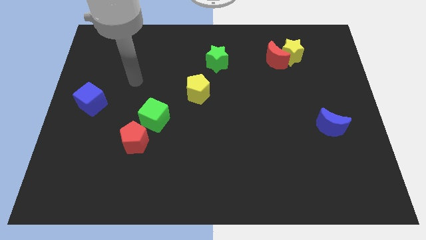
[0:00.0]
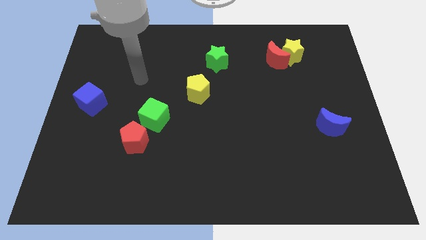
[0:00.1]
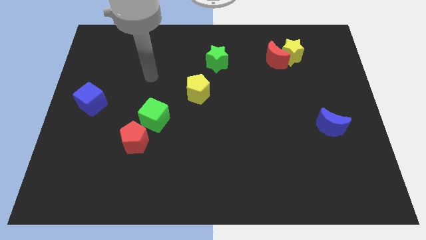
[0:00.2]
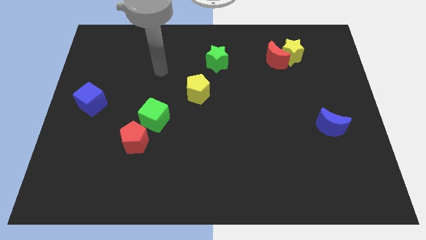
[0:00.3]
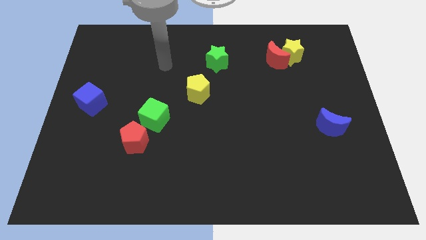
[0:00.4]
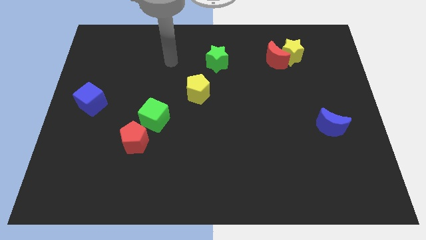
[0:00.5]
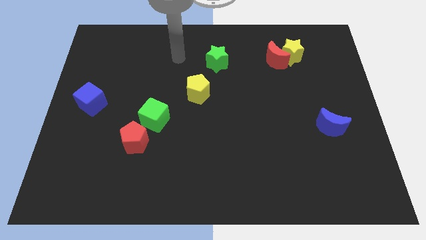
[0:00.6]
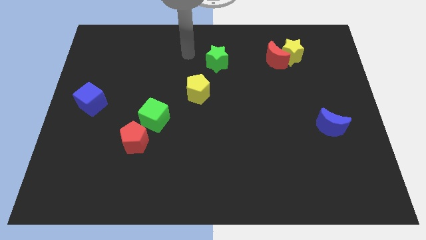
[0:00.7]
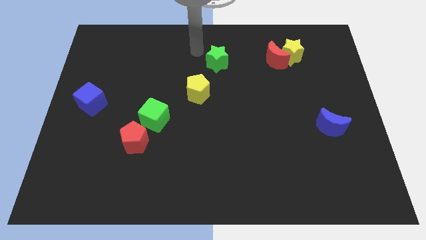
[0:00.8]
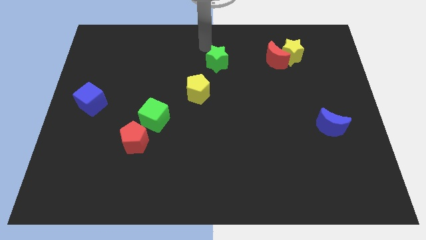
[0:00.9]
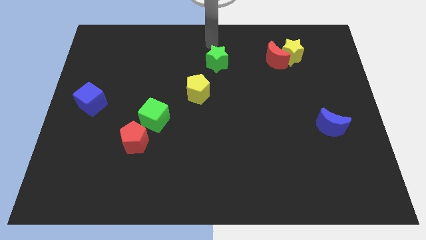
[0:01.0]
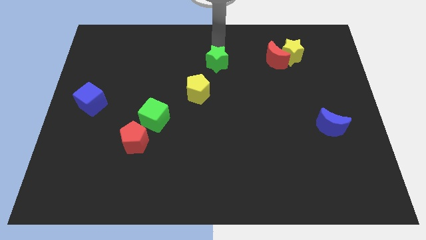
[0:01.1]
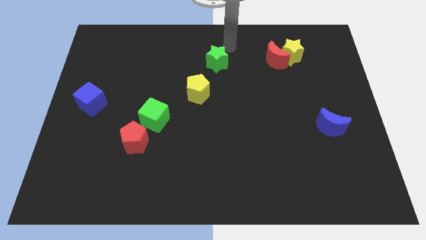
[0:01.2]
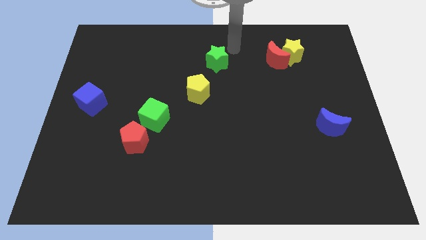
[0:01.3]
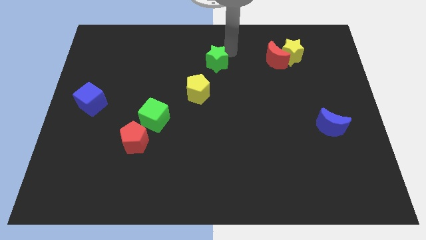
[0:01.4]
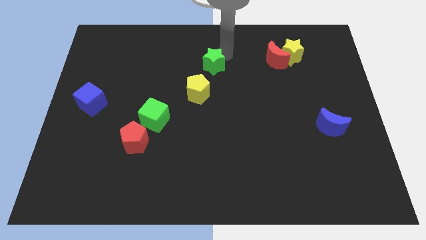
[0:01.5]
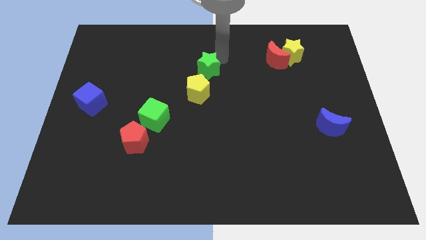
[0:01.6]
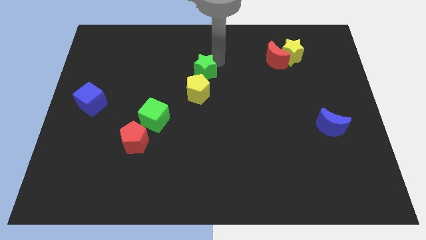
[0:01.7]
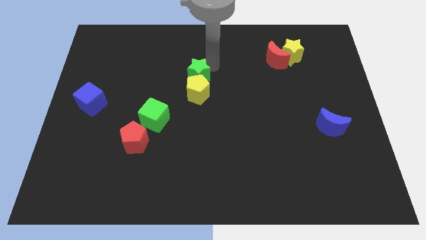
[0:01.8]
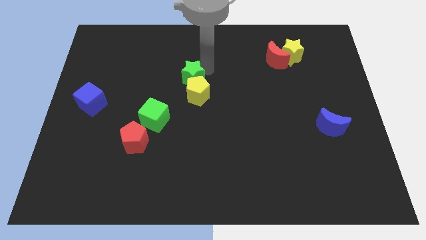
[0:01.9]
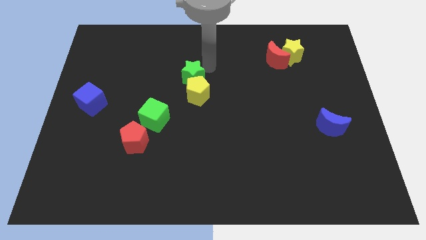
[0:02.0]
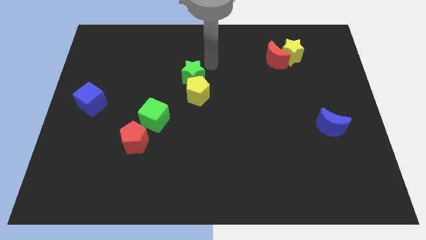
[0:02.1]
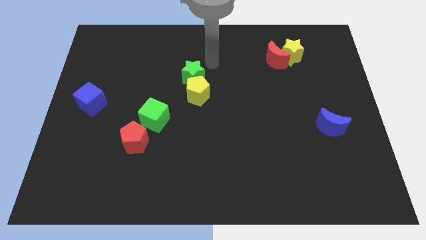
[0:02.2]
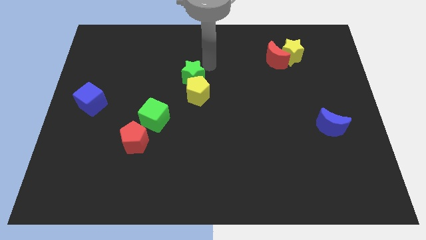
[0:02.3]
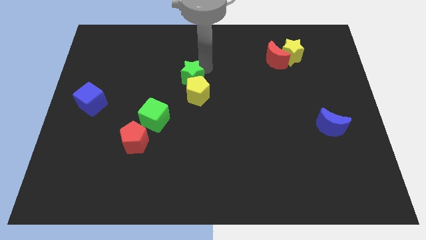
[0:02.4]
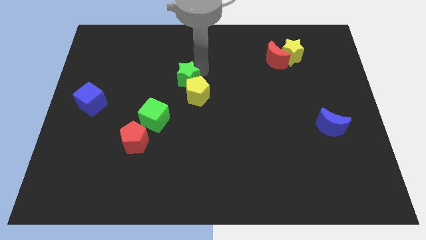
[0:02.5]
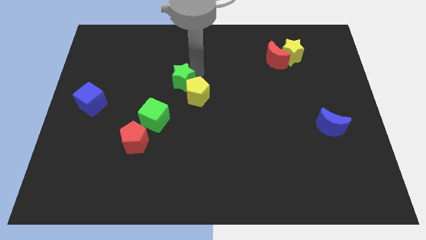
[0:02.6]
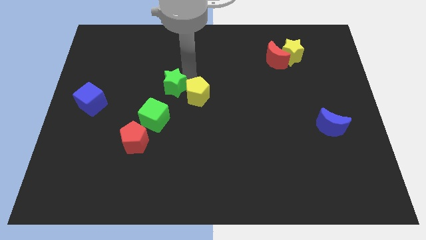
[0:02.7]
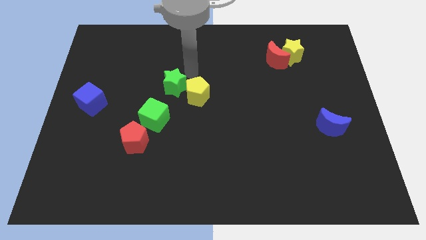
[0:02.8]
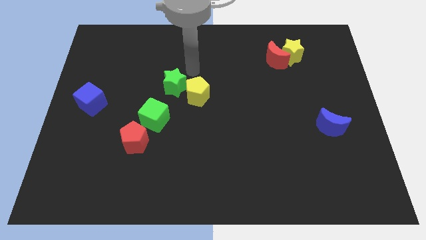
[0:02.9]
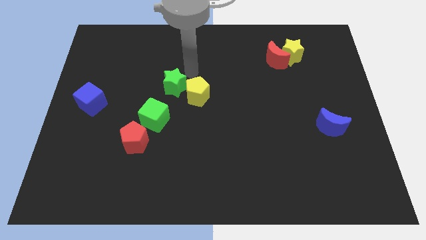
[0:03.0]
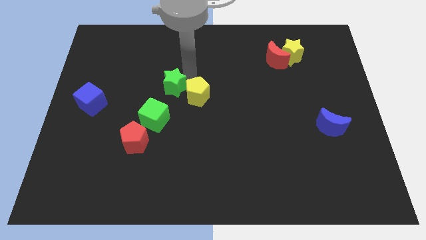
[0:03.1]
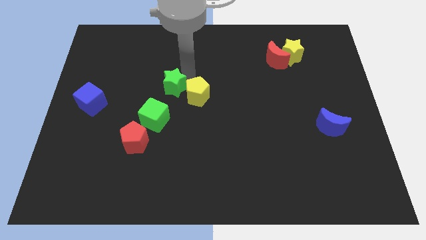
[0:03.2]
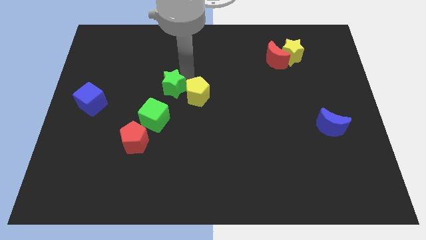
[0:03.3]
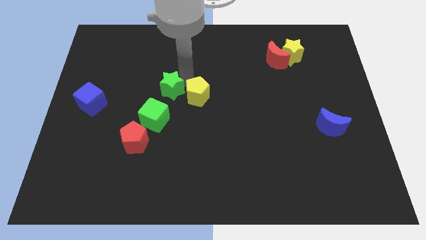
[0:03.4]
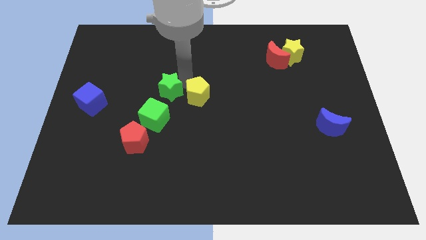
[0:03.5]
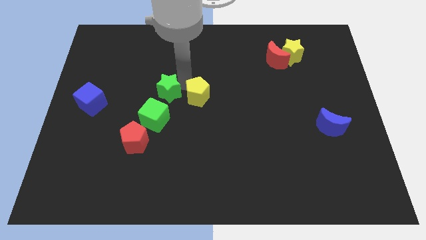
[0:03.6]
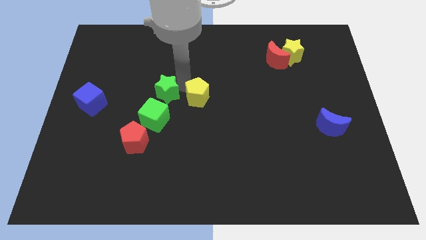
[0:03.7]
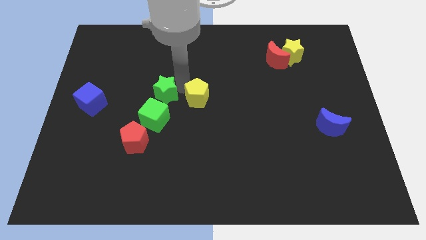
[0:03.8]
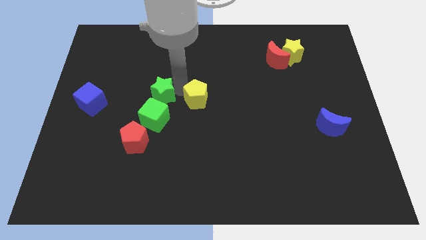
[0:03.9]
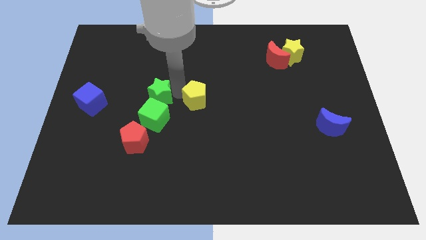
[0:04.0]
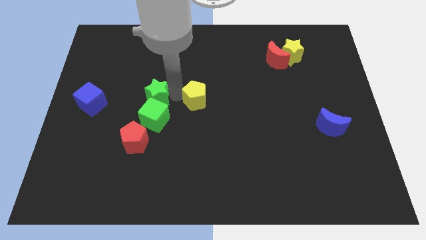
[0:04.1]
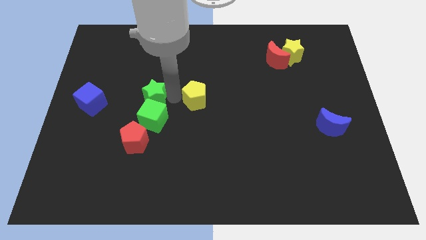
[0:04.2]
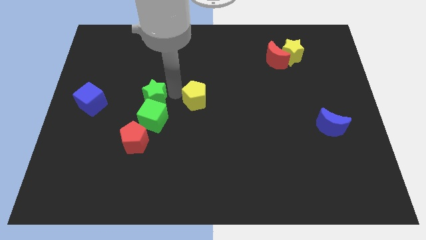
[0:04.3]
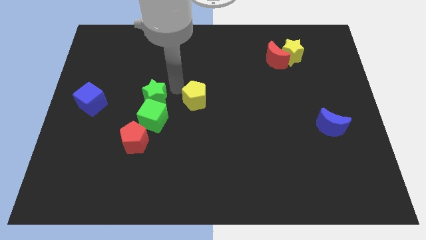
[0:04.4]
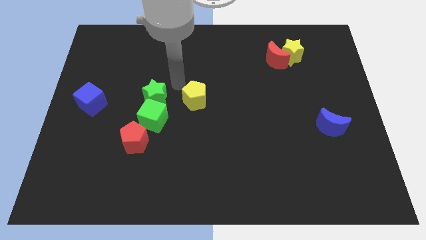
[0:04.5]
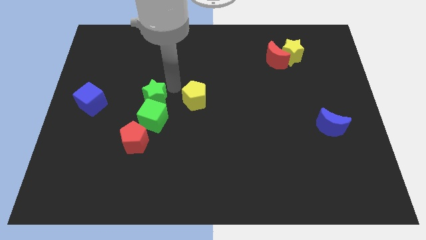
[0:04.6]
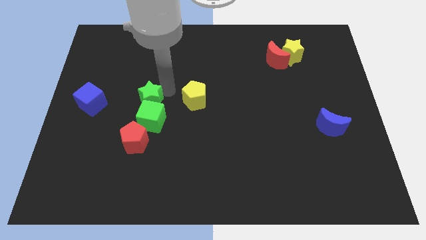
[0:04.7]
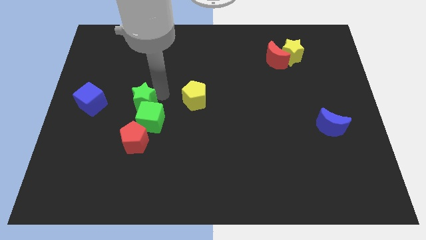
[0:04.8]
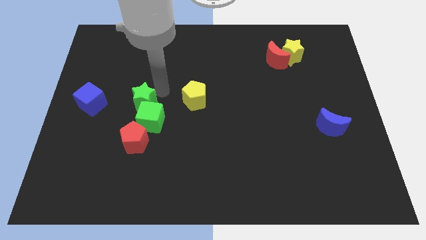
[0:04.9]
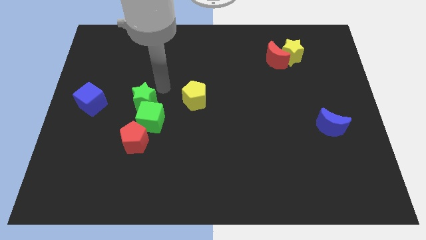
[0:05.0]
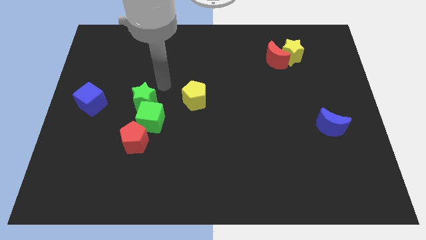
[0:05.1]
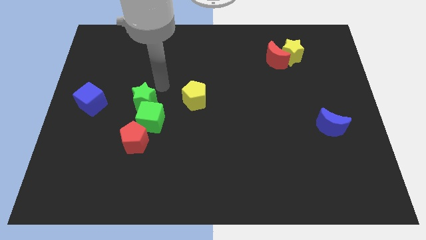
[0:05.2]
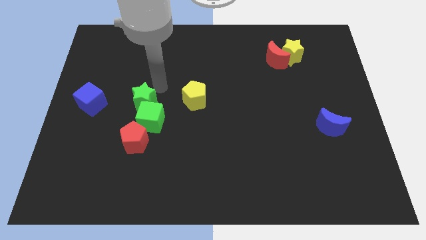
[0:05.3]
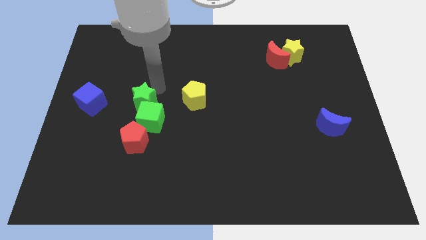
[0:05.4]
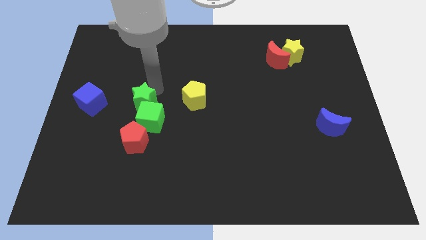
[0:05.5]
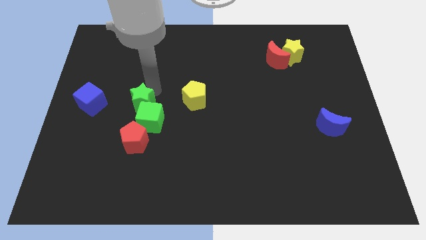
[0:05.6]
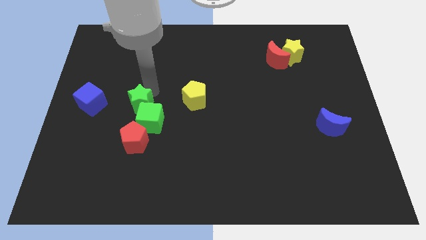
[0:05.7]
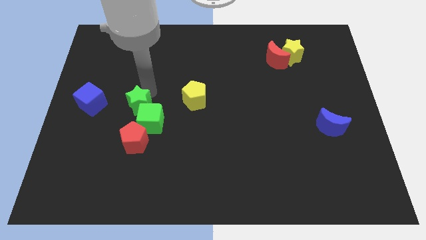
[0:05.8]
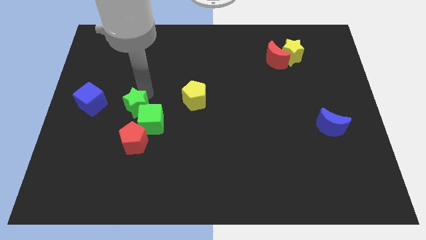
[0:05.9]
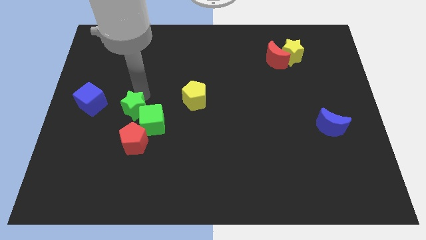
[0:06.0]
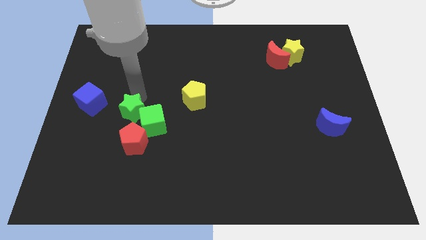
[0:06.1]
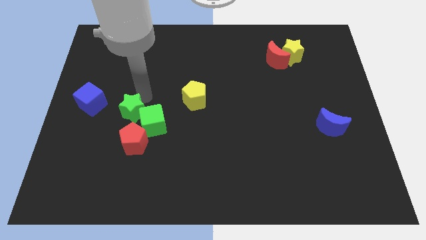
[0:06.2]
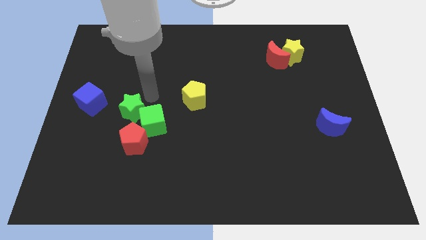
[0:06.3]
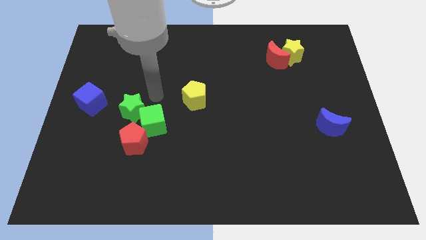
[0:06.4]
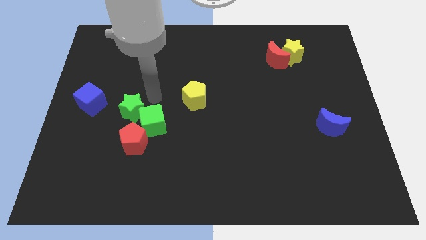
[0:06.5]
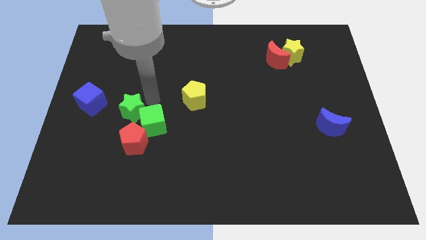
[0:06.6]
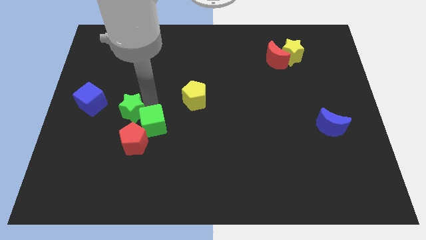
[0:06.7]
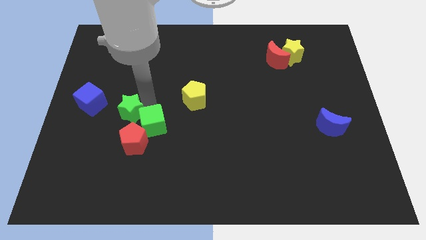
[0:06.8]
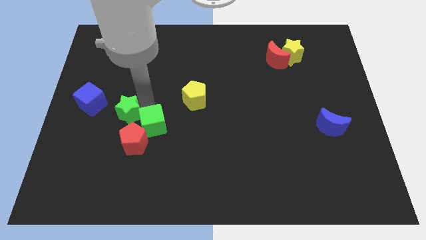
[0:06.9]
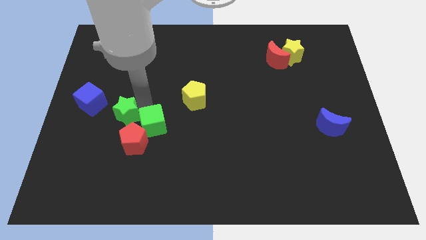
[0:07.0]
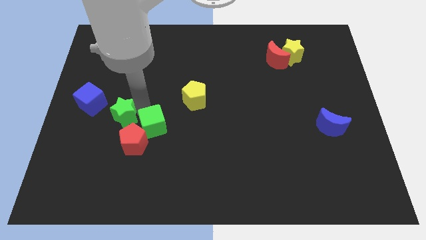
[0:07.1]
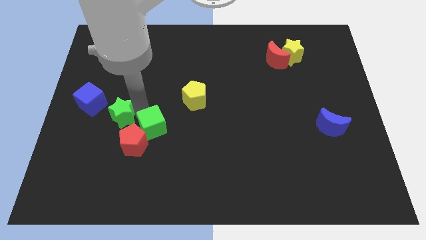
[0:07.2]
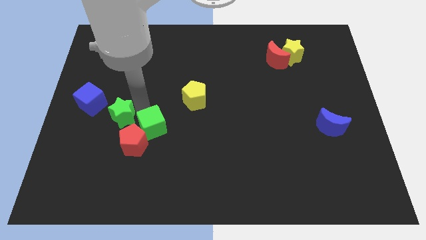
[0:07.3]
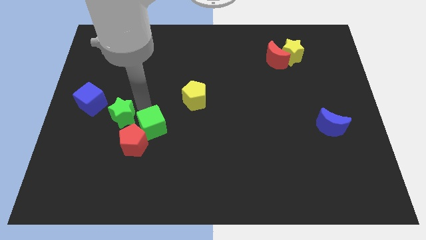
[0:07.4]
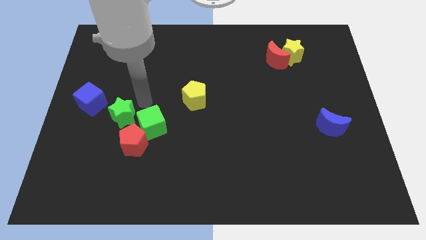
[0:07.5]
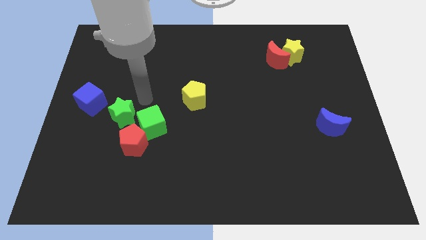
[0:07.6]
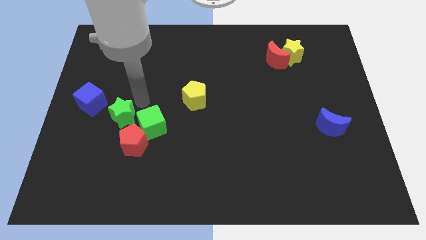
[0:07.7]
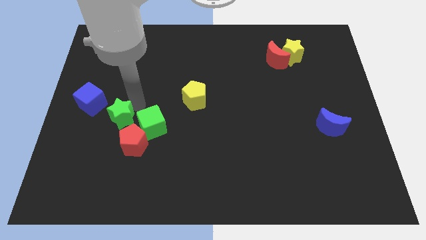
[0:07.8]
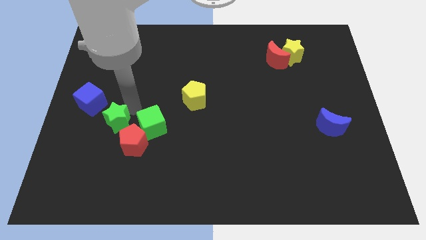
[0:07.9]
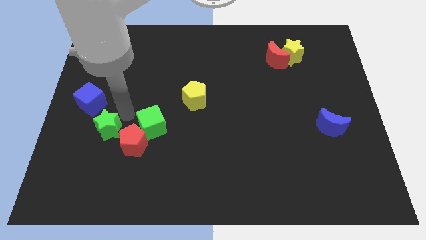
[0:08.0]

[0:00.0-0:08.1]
push the green star to the left of the red pentagon
